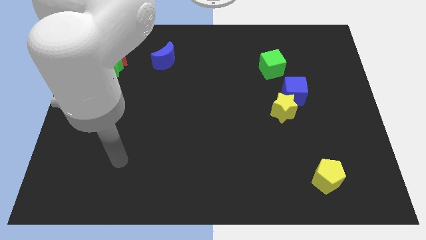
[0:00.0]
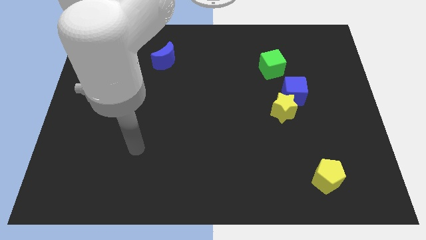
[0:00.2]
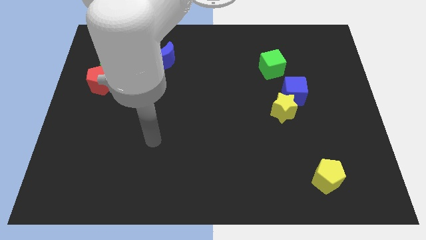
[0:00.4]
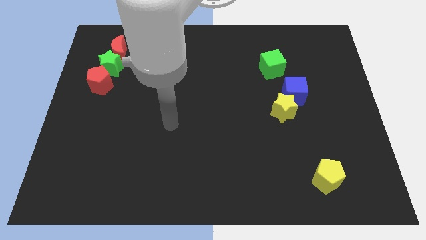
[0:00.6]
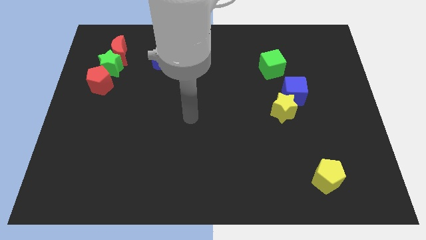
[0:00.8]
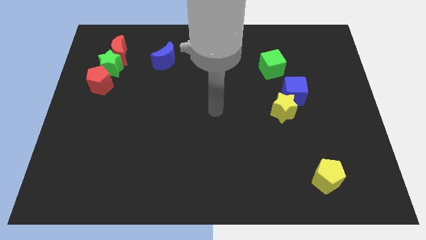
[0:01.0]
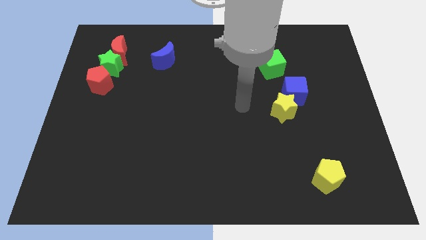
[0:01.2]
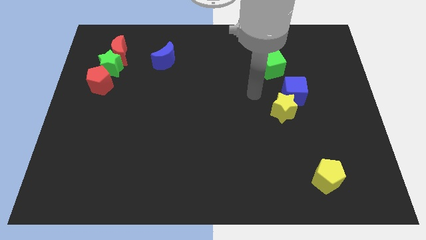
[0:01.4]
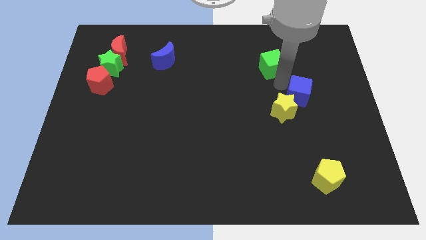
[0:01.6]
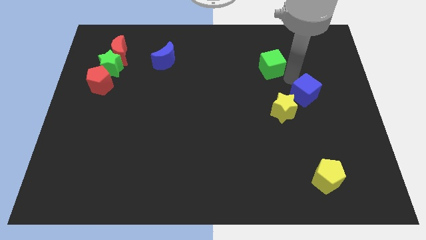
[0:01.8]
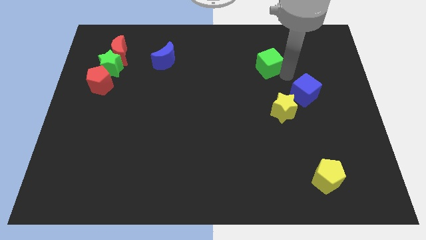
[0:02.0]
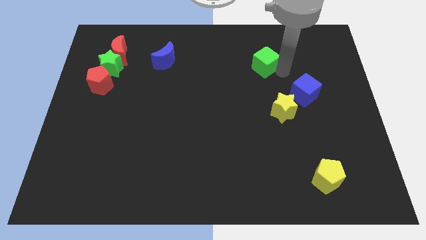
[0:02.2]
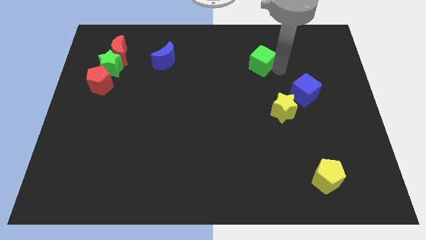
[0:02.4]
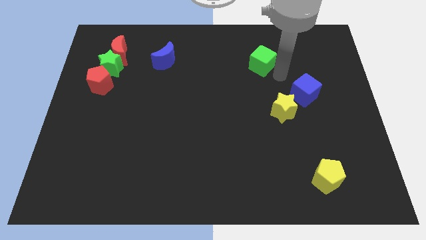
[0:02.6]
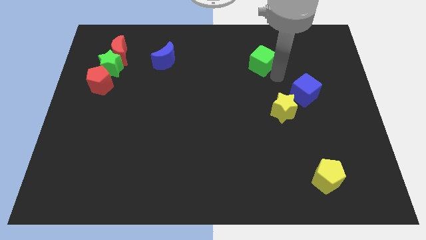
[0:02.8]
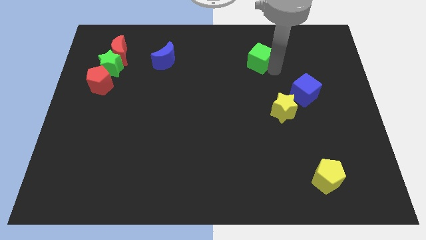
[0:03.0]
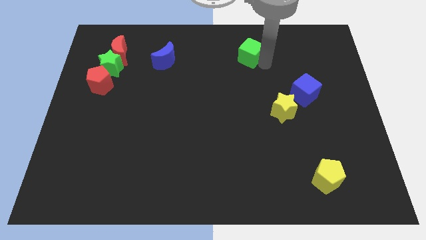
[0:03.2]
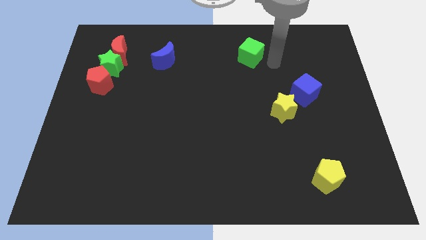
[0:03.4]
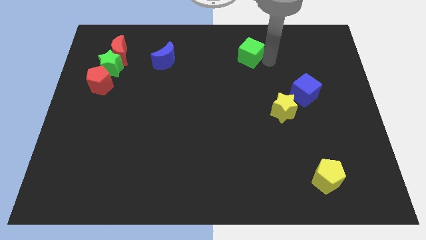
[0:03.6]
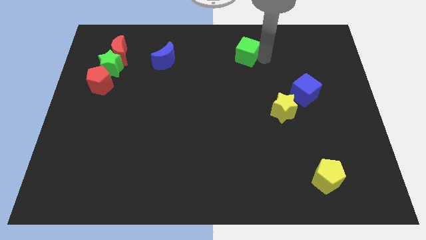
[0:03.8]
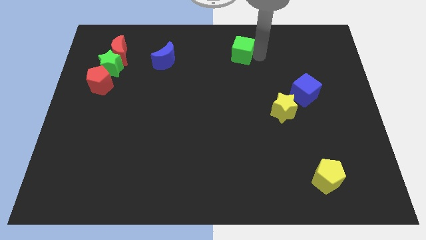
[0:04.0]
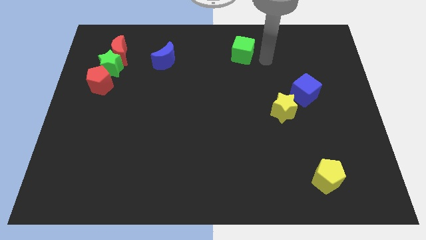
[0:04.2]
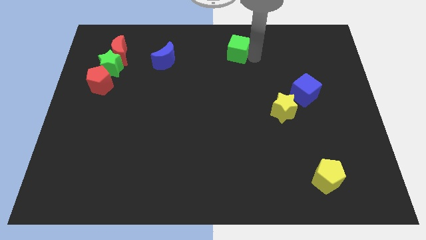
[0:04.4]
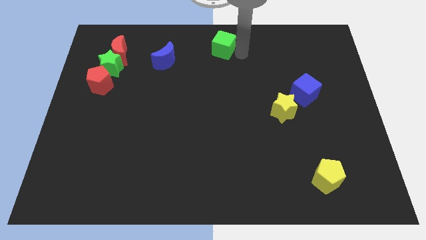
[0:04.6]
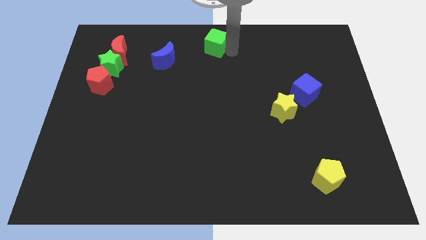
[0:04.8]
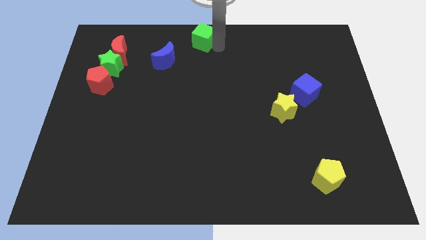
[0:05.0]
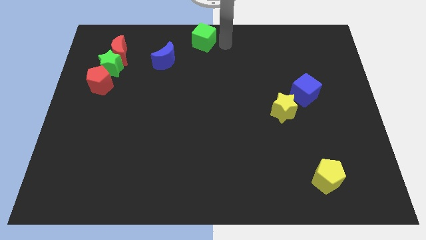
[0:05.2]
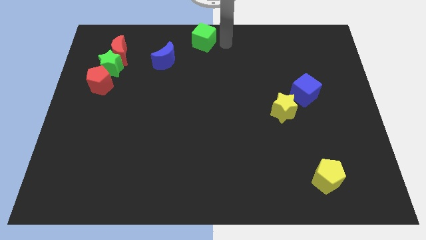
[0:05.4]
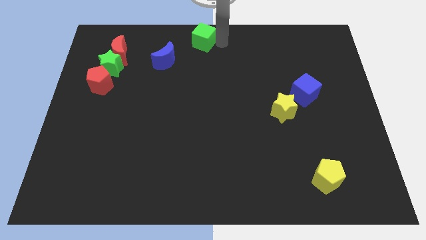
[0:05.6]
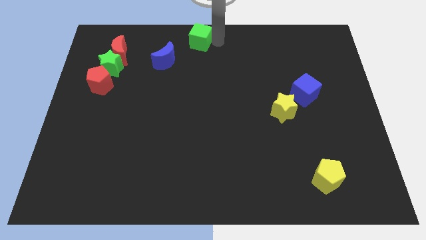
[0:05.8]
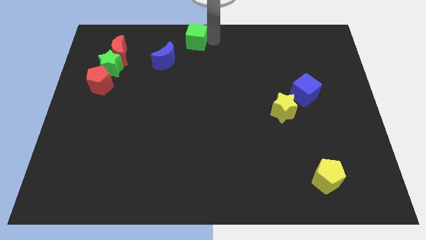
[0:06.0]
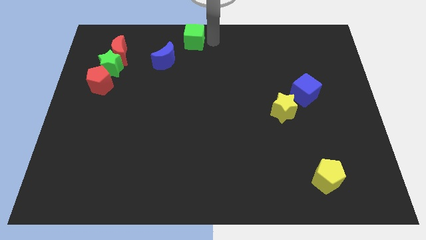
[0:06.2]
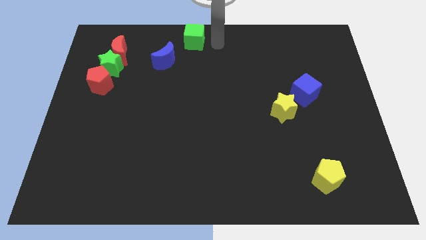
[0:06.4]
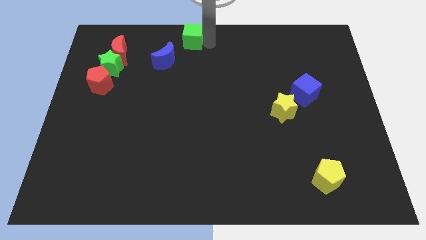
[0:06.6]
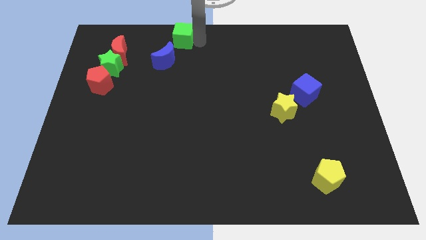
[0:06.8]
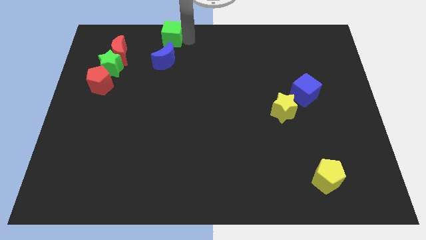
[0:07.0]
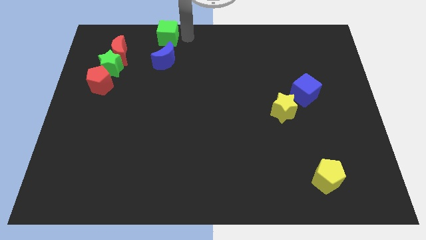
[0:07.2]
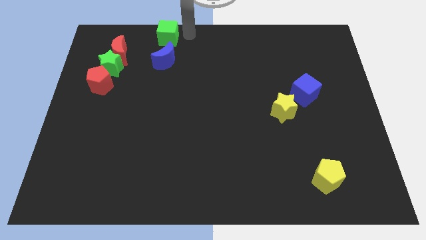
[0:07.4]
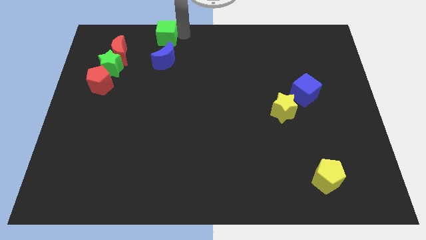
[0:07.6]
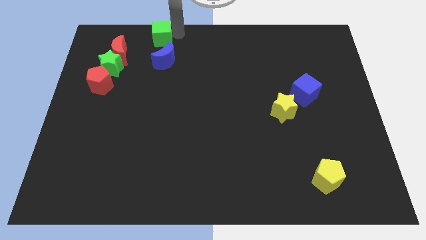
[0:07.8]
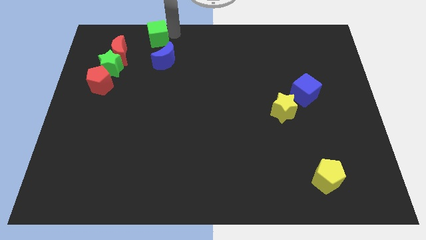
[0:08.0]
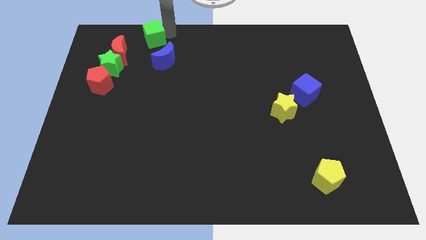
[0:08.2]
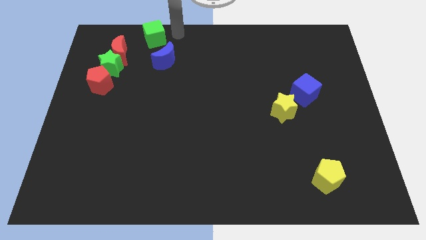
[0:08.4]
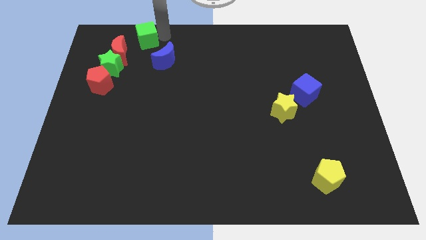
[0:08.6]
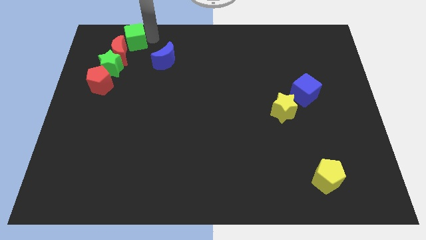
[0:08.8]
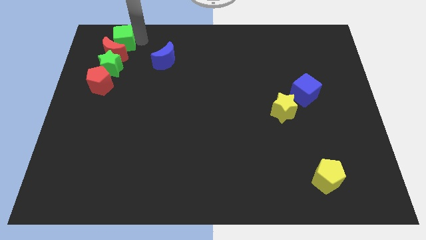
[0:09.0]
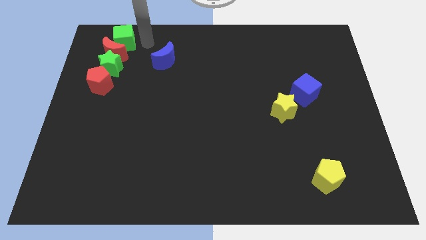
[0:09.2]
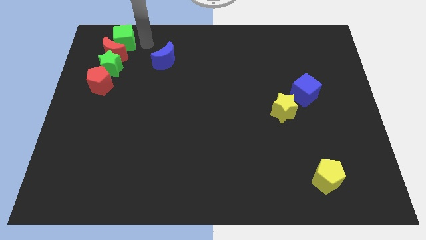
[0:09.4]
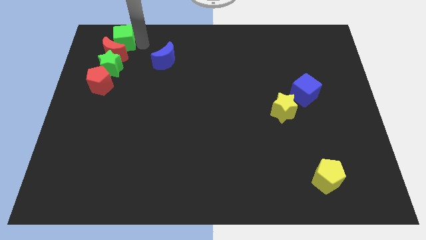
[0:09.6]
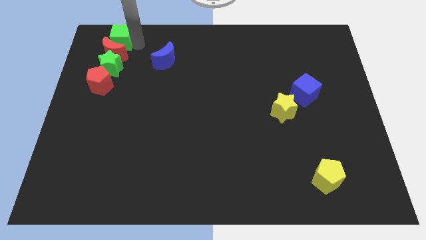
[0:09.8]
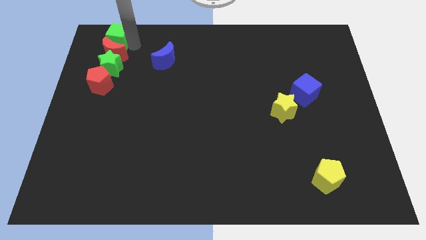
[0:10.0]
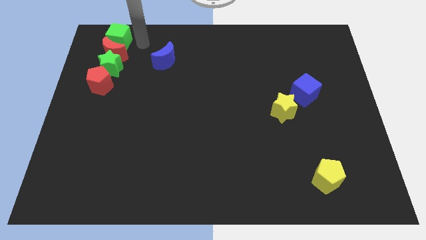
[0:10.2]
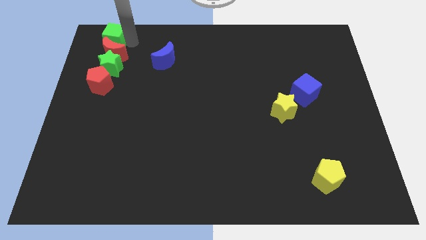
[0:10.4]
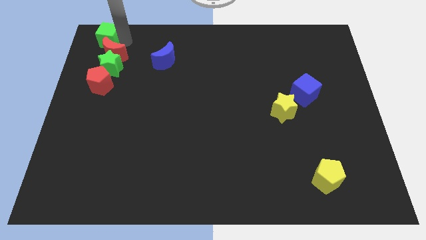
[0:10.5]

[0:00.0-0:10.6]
push the green cube to the upper left corner

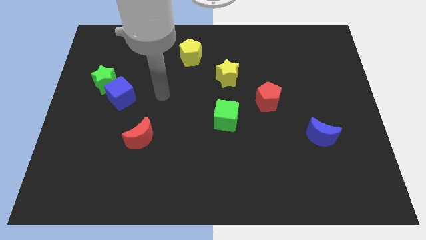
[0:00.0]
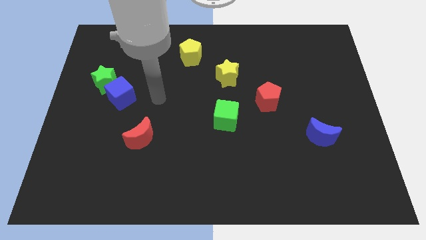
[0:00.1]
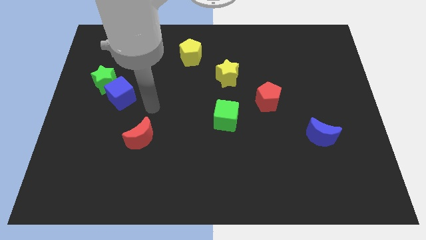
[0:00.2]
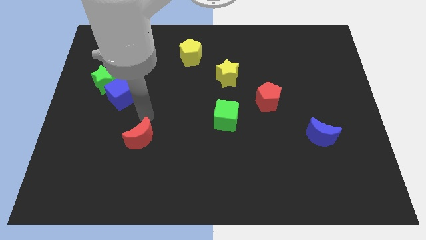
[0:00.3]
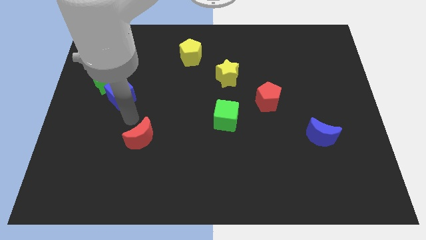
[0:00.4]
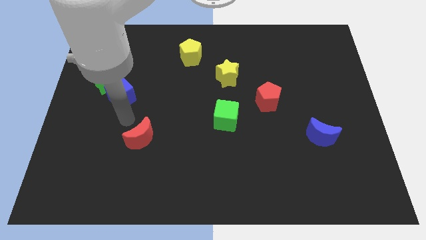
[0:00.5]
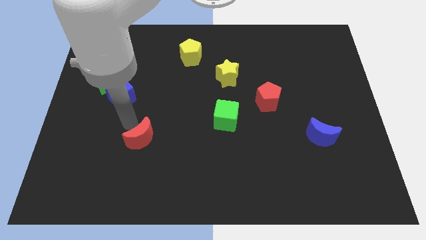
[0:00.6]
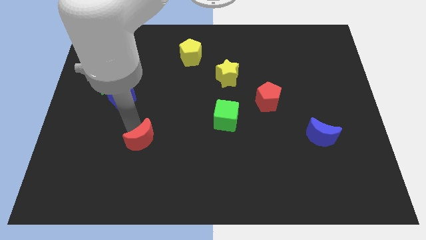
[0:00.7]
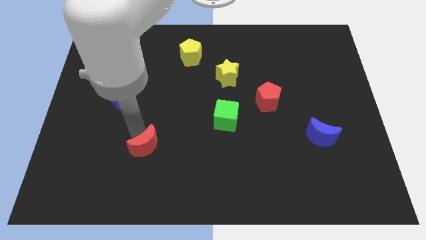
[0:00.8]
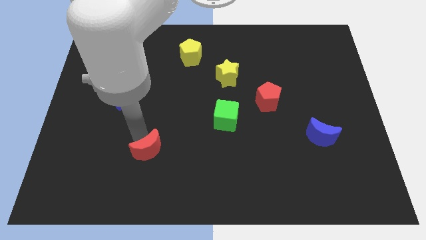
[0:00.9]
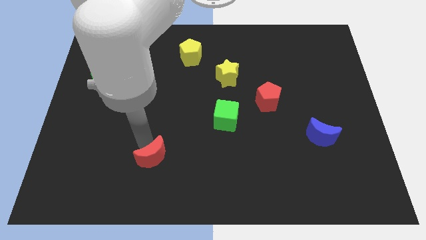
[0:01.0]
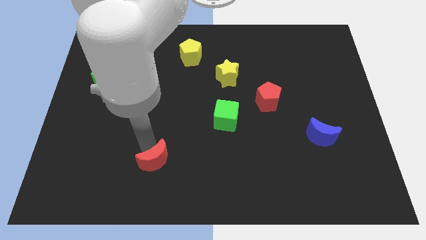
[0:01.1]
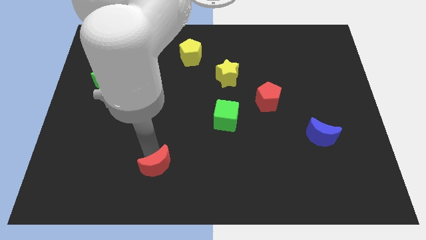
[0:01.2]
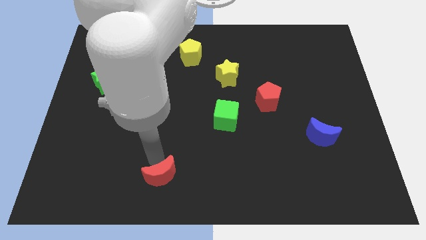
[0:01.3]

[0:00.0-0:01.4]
push the red moon to the bottom side

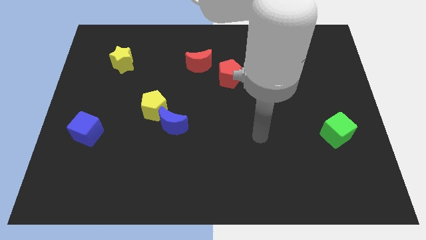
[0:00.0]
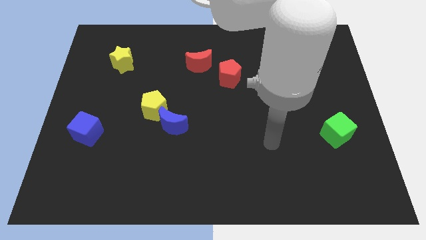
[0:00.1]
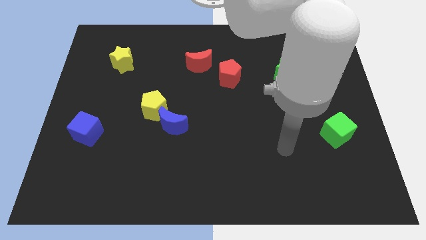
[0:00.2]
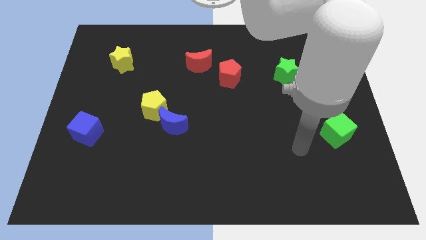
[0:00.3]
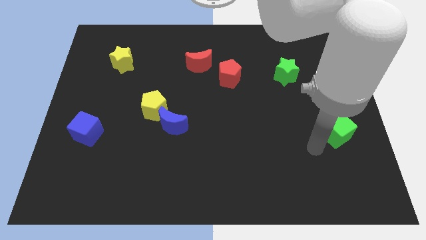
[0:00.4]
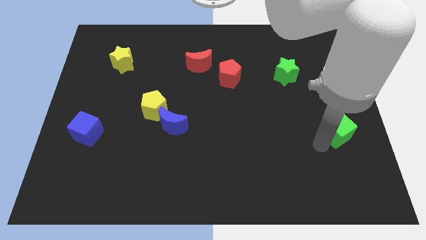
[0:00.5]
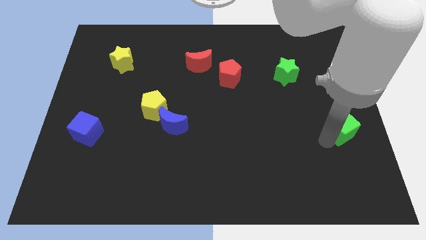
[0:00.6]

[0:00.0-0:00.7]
push the green cube to the center right
